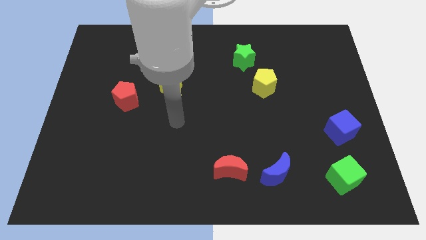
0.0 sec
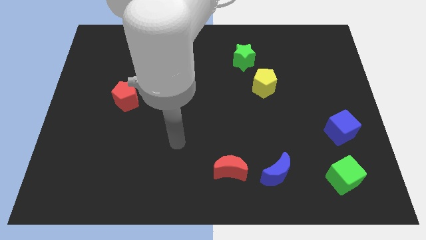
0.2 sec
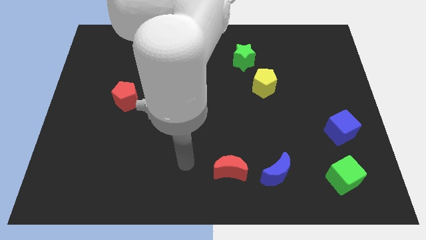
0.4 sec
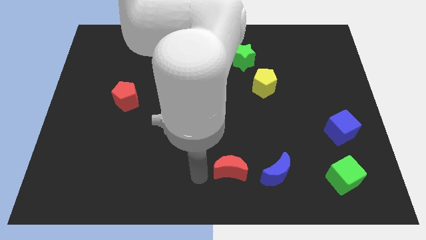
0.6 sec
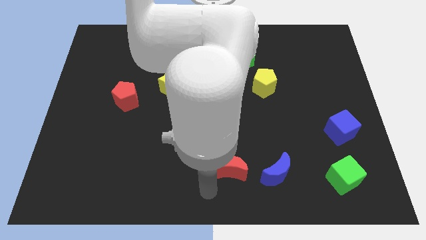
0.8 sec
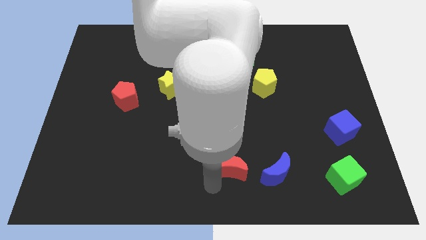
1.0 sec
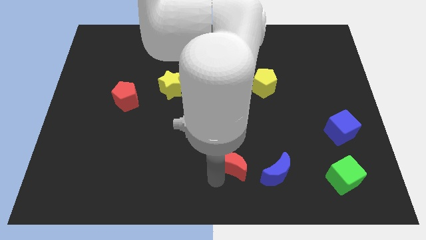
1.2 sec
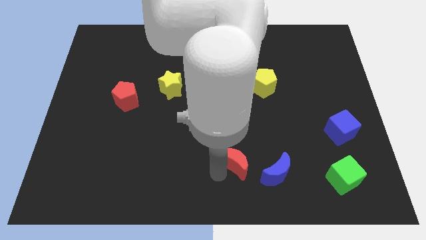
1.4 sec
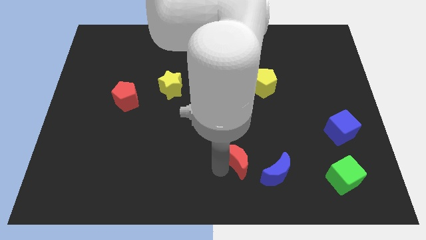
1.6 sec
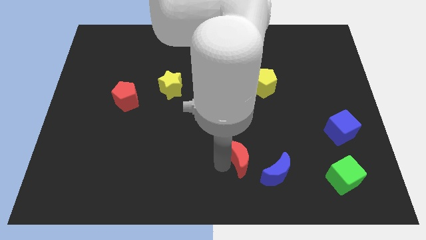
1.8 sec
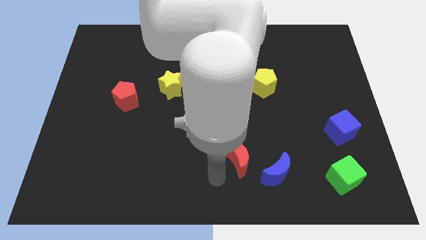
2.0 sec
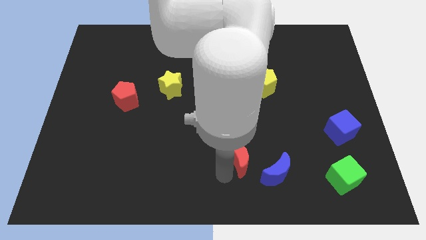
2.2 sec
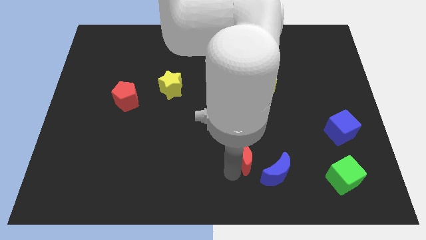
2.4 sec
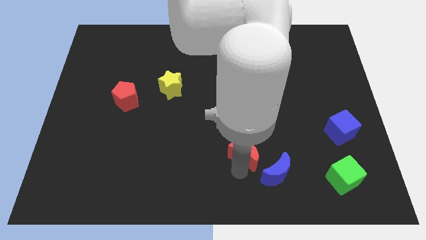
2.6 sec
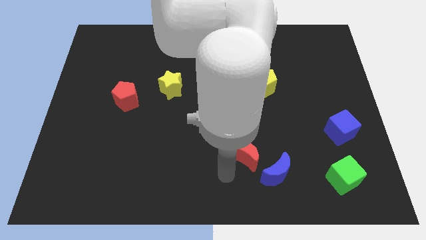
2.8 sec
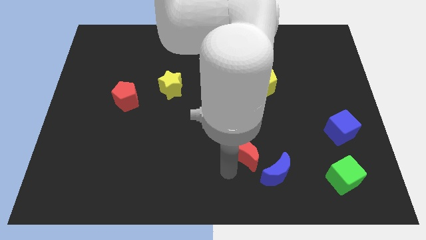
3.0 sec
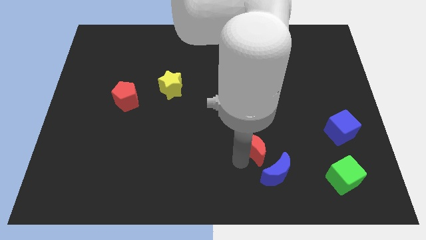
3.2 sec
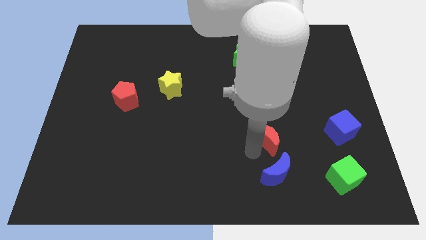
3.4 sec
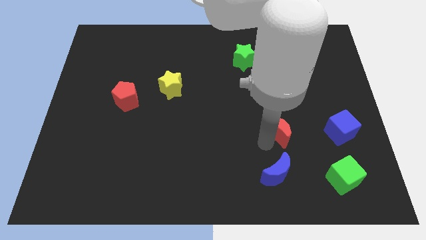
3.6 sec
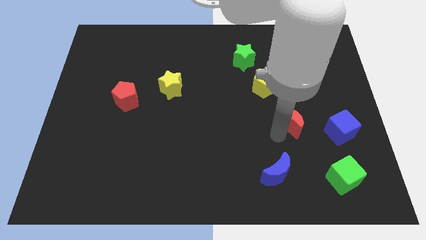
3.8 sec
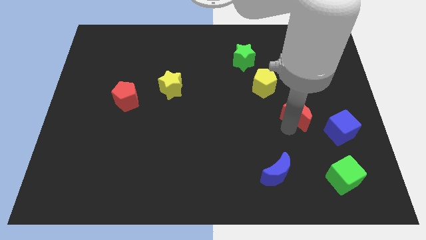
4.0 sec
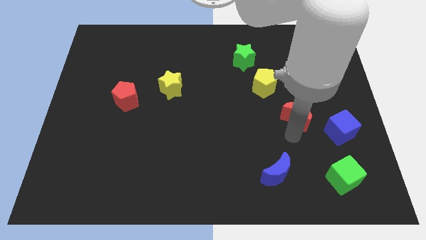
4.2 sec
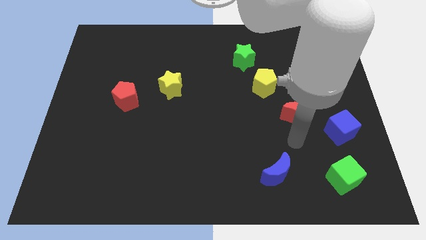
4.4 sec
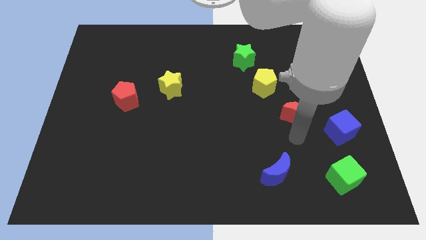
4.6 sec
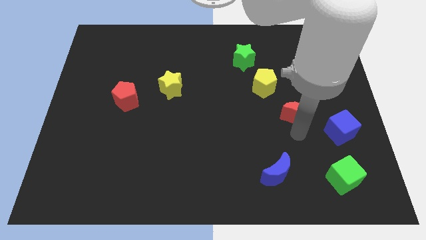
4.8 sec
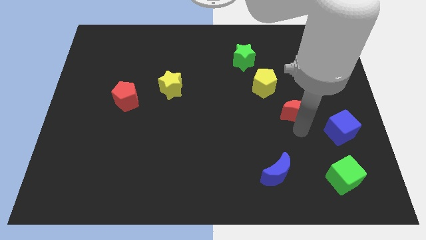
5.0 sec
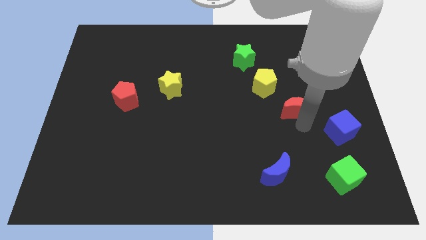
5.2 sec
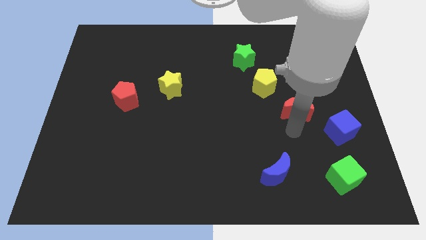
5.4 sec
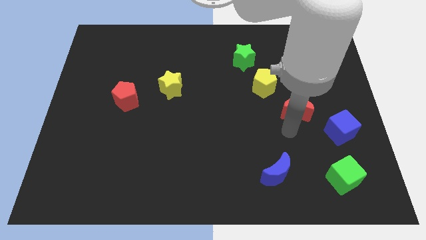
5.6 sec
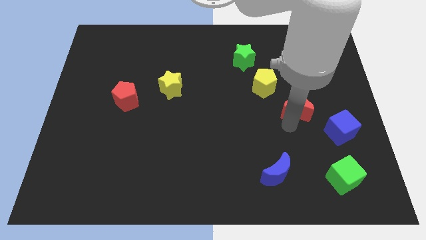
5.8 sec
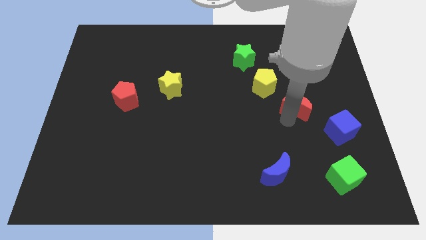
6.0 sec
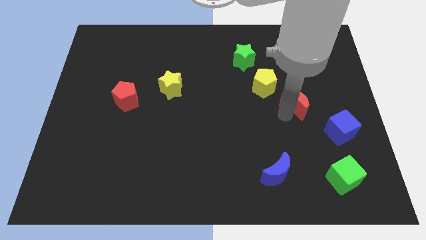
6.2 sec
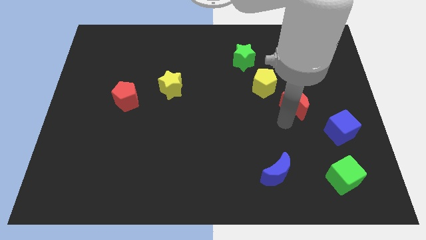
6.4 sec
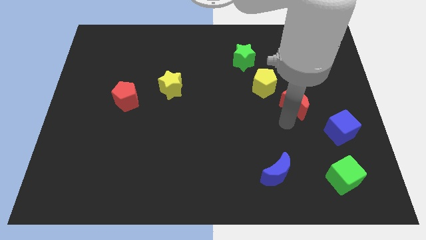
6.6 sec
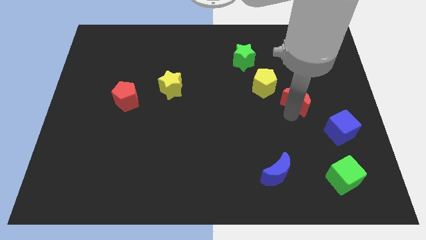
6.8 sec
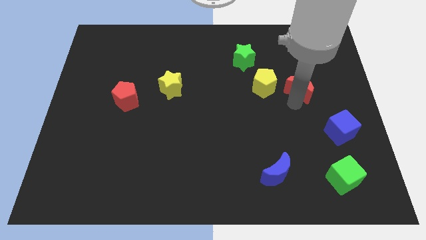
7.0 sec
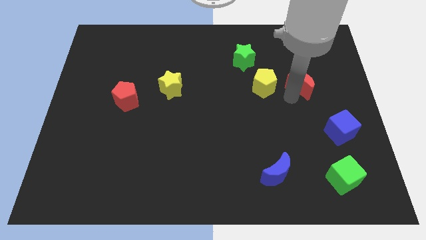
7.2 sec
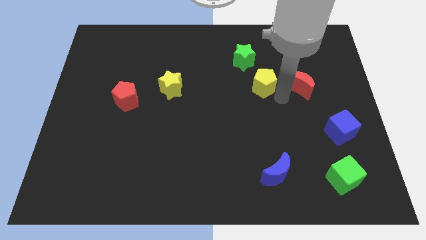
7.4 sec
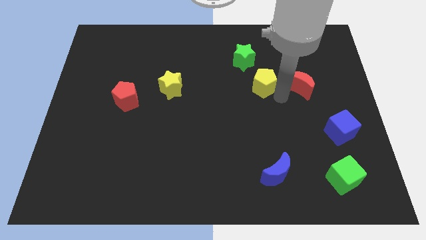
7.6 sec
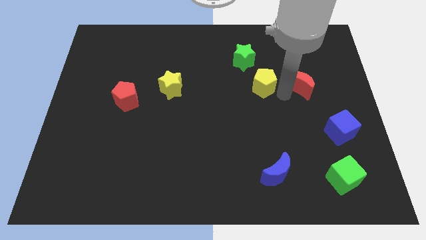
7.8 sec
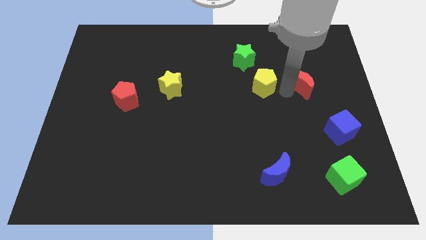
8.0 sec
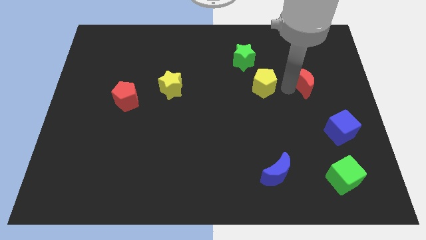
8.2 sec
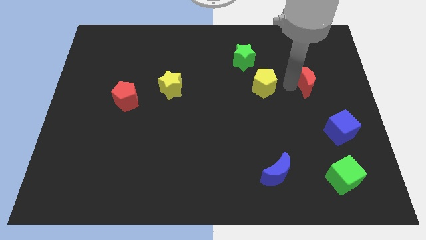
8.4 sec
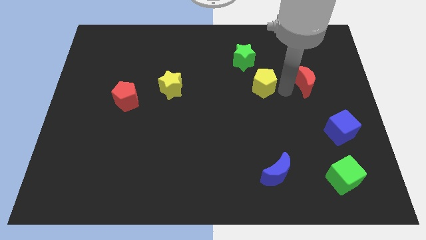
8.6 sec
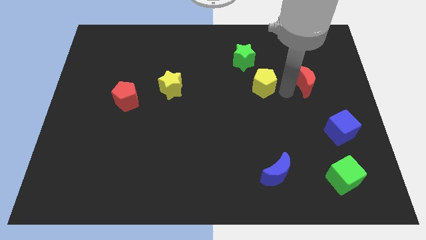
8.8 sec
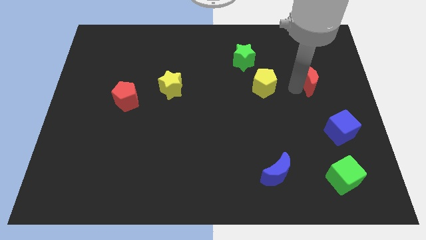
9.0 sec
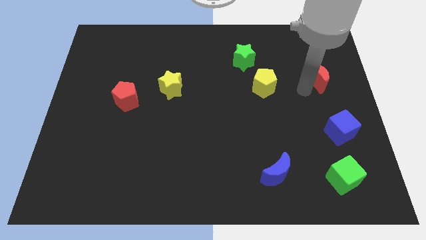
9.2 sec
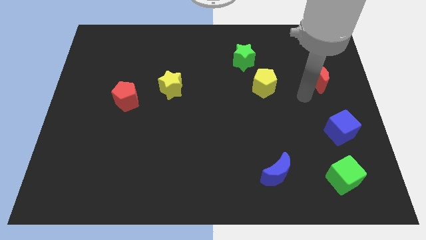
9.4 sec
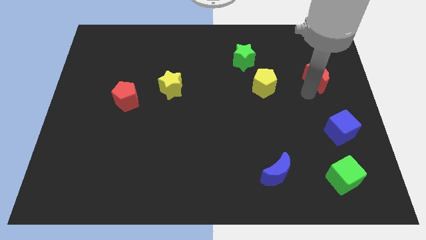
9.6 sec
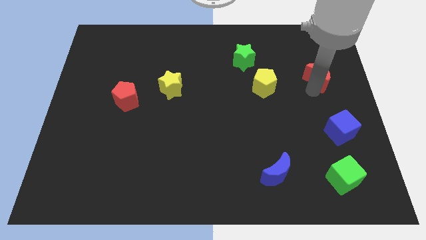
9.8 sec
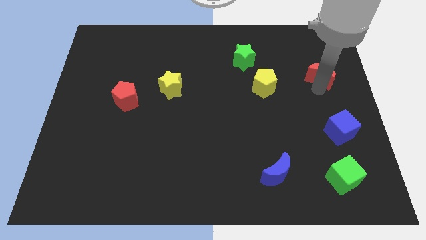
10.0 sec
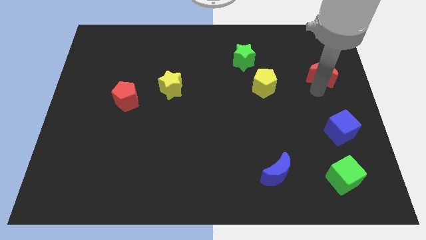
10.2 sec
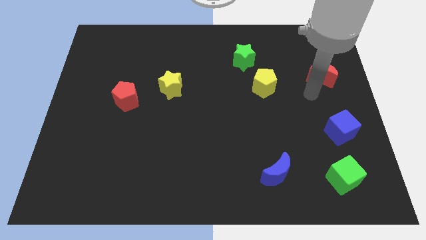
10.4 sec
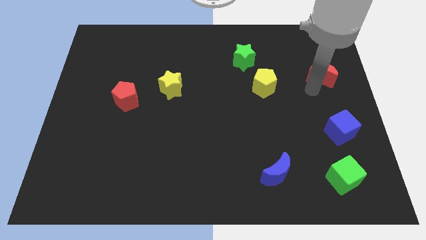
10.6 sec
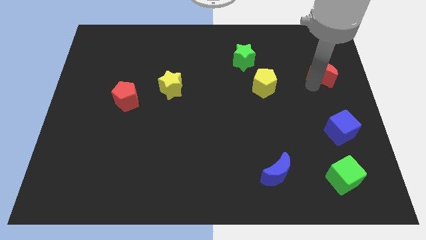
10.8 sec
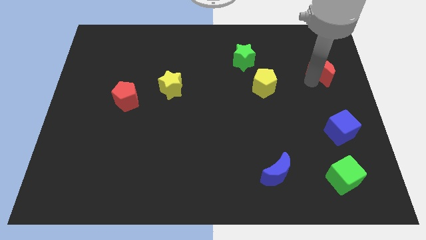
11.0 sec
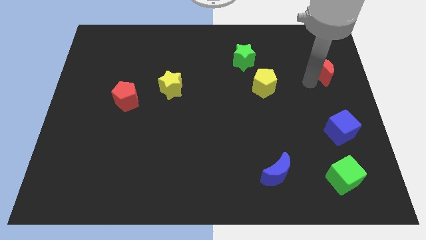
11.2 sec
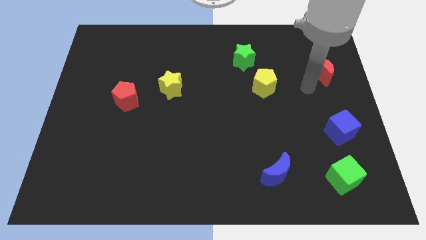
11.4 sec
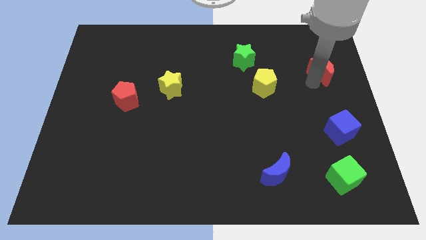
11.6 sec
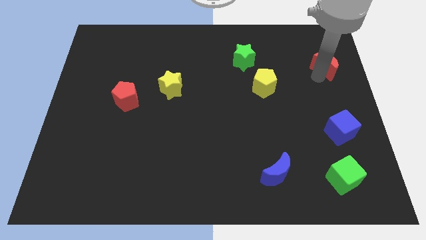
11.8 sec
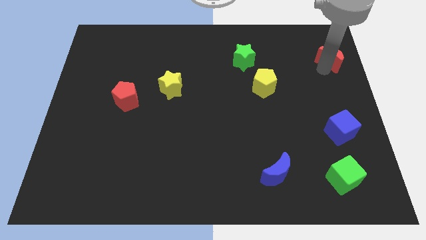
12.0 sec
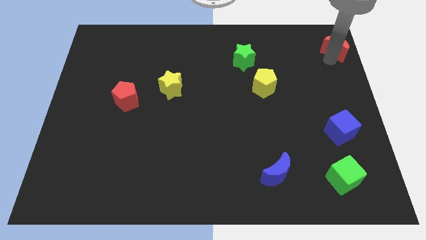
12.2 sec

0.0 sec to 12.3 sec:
push the red moon to the top right corner
